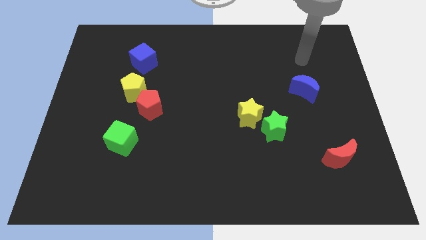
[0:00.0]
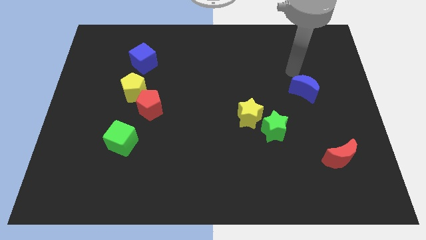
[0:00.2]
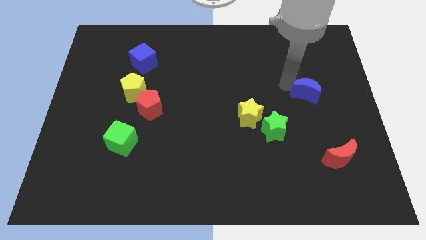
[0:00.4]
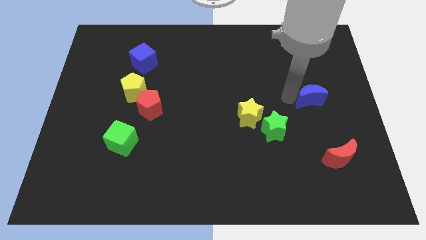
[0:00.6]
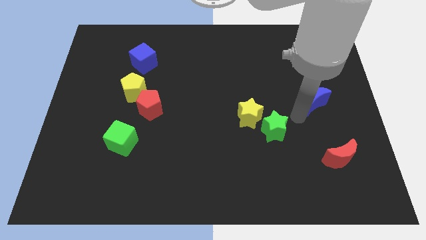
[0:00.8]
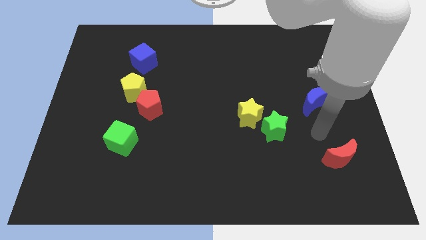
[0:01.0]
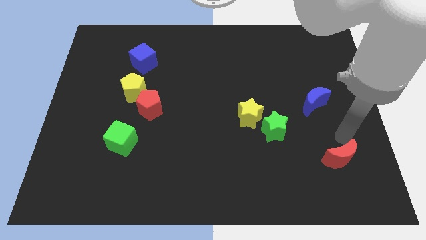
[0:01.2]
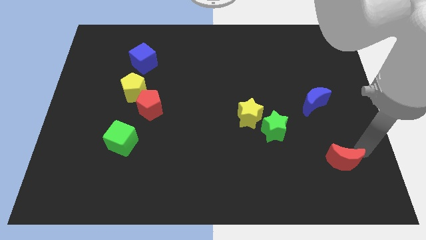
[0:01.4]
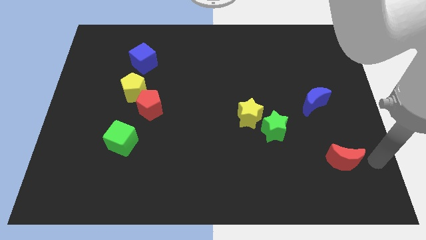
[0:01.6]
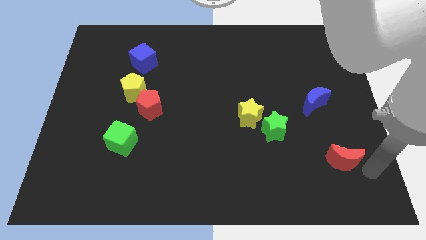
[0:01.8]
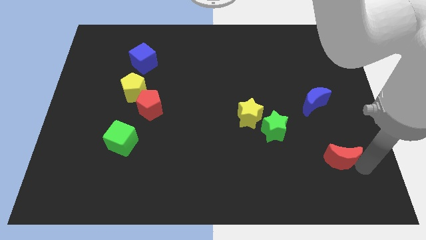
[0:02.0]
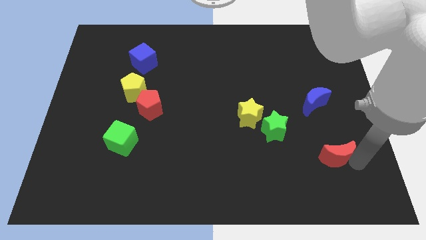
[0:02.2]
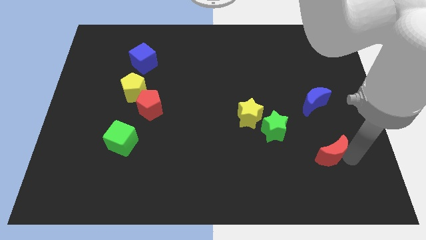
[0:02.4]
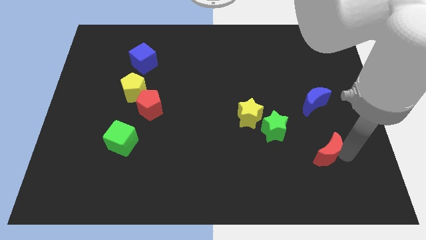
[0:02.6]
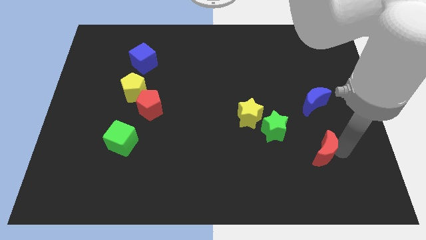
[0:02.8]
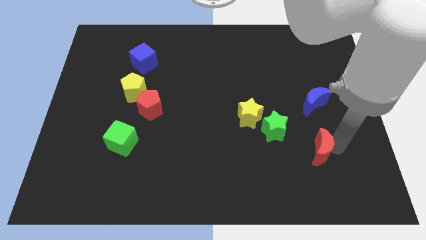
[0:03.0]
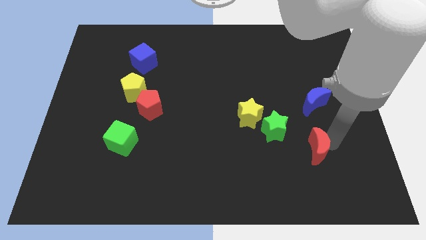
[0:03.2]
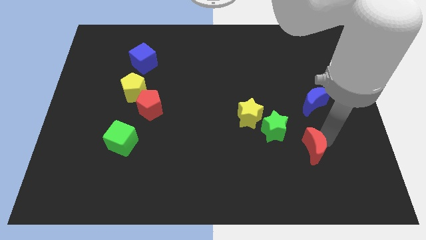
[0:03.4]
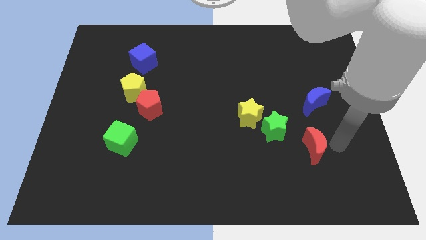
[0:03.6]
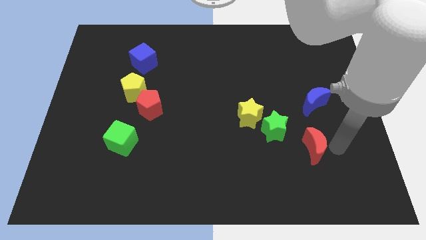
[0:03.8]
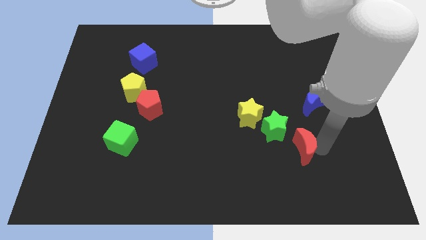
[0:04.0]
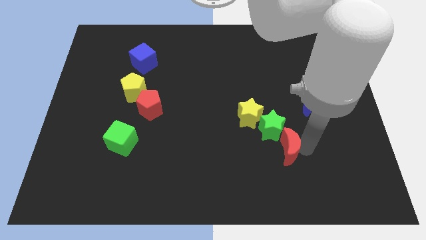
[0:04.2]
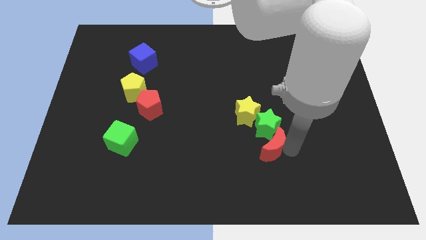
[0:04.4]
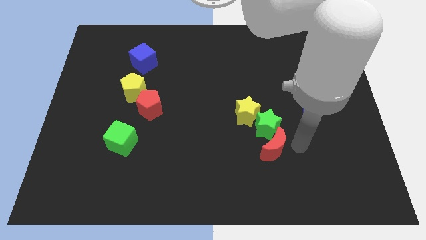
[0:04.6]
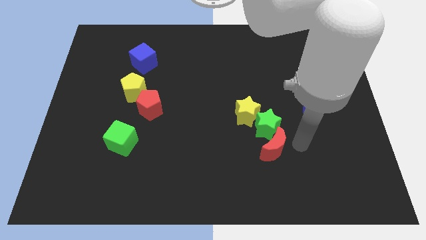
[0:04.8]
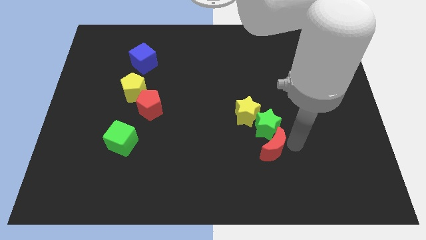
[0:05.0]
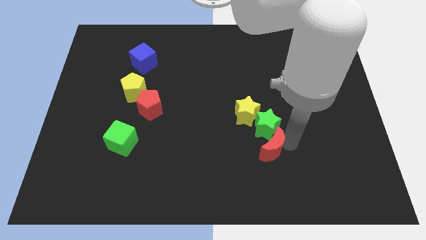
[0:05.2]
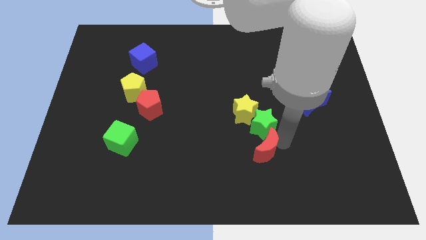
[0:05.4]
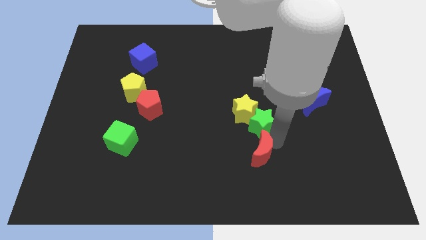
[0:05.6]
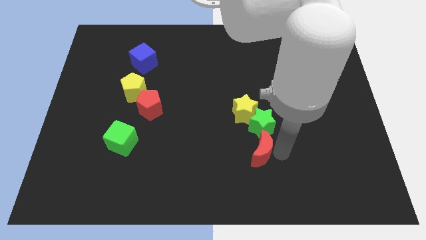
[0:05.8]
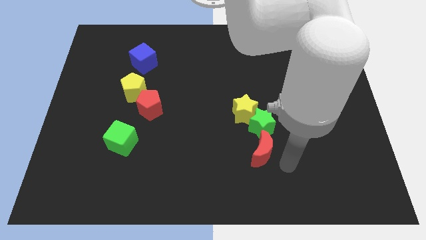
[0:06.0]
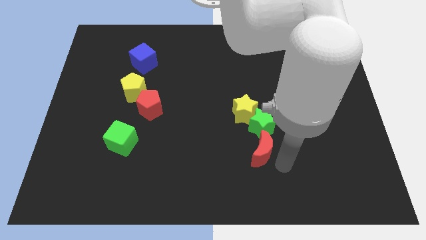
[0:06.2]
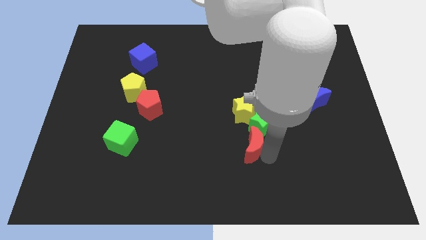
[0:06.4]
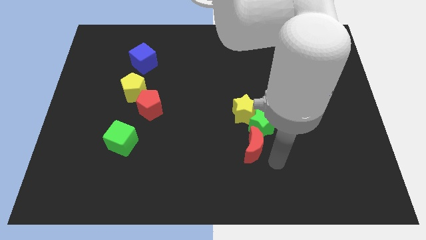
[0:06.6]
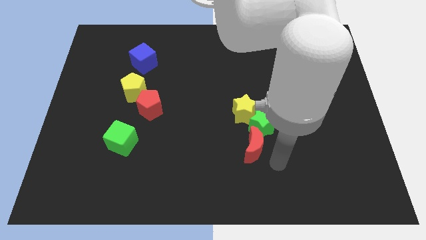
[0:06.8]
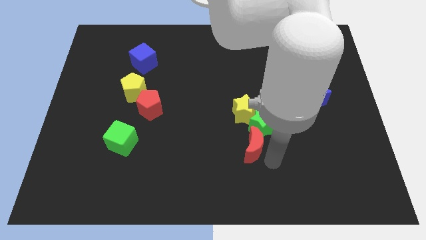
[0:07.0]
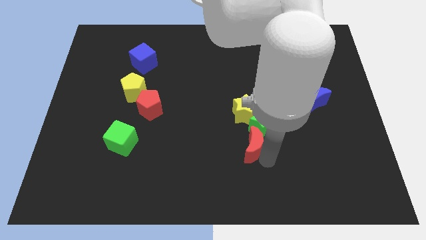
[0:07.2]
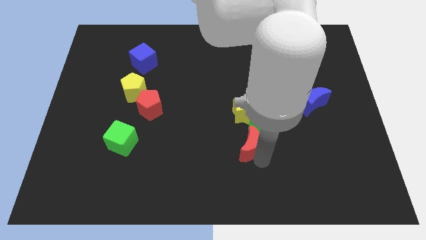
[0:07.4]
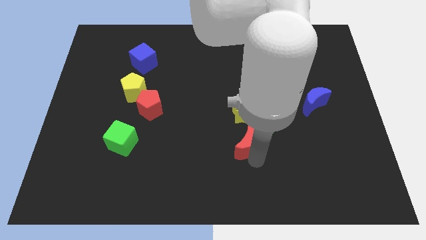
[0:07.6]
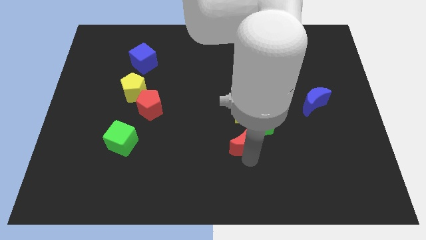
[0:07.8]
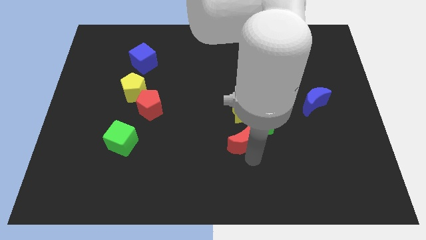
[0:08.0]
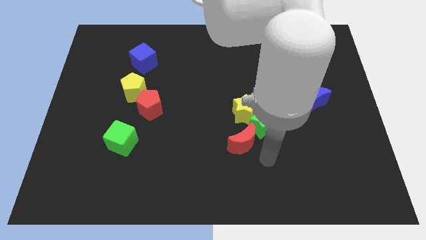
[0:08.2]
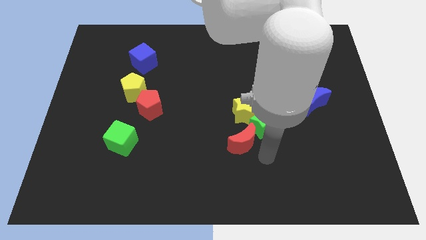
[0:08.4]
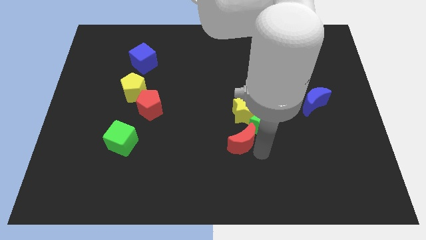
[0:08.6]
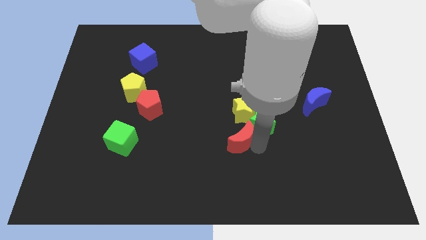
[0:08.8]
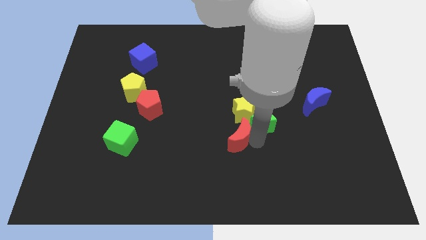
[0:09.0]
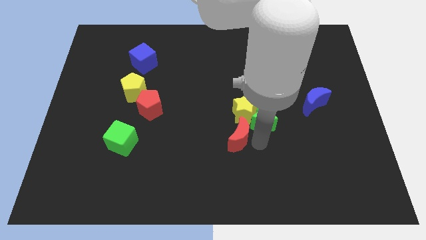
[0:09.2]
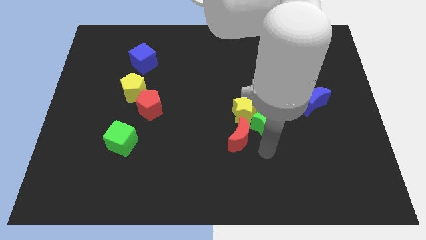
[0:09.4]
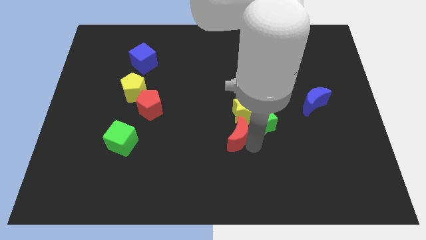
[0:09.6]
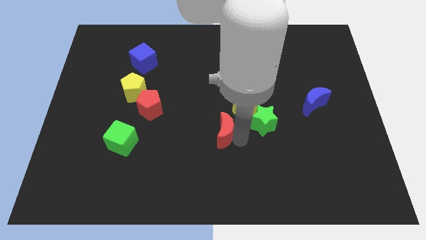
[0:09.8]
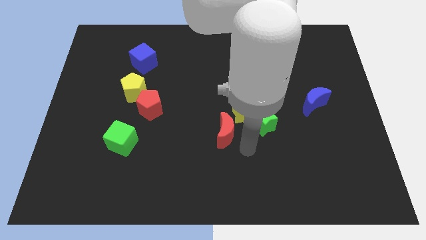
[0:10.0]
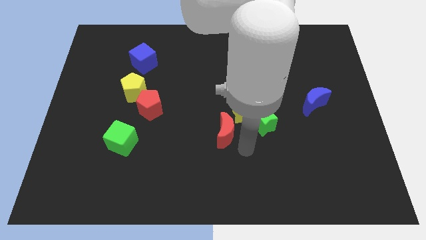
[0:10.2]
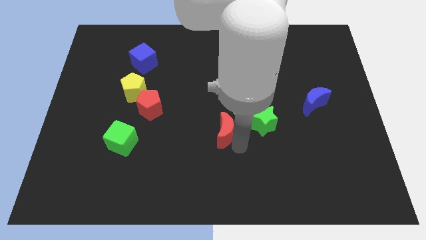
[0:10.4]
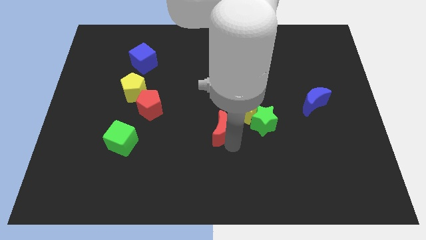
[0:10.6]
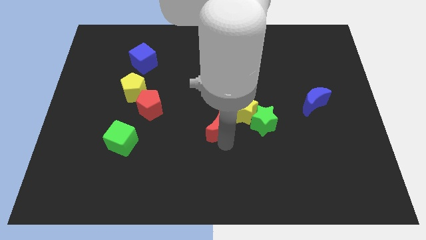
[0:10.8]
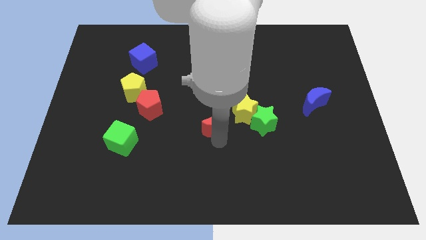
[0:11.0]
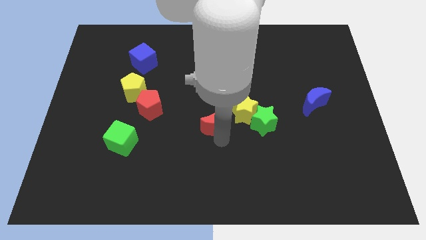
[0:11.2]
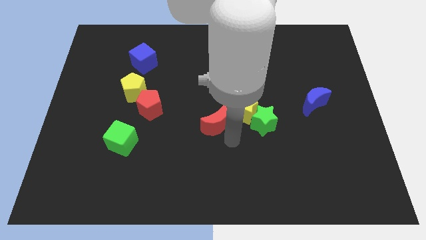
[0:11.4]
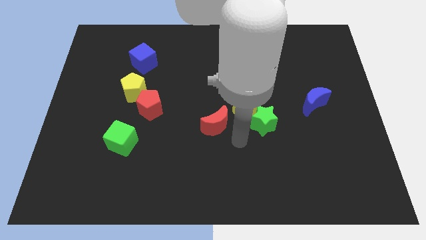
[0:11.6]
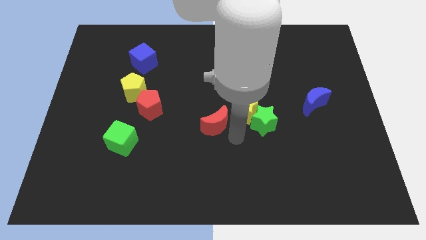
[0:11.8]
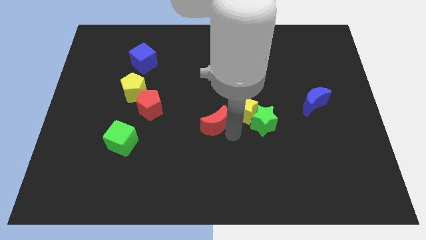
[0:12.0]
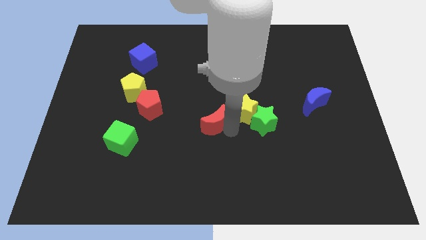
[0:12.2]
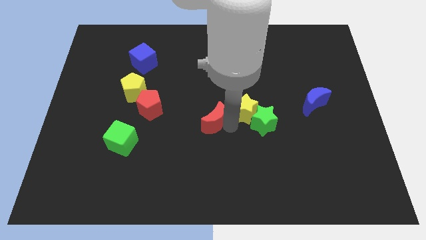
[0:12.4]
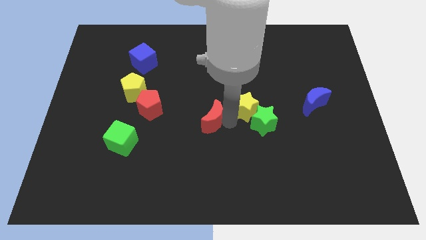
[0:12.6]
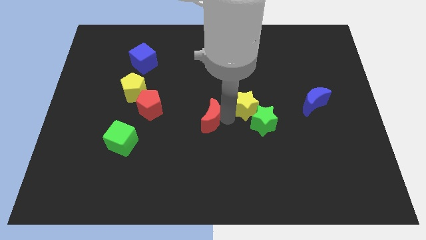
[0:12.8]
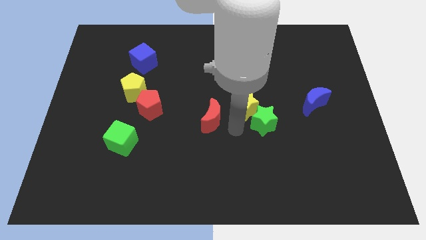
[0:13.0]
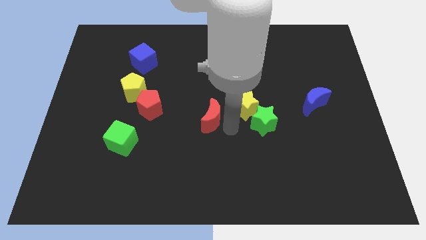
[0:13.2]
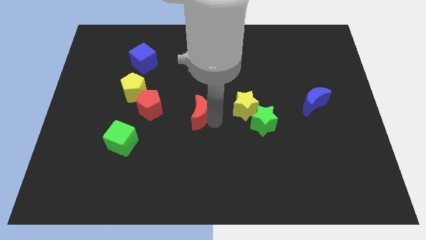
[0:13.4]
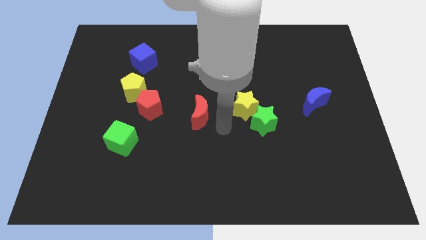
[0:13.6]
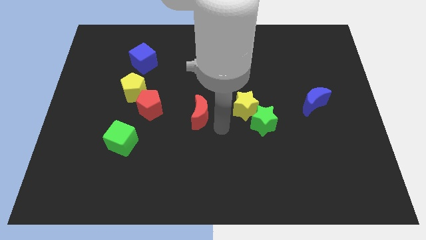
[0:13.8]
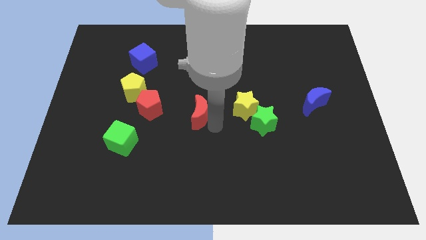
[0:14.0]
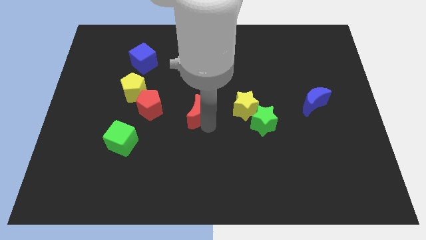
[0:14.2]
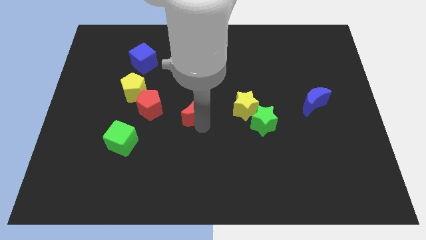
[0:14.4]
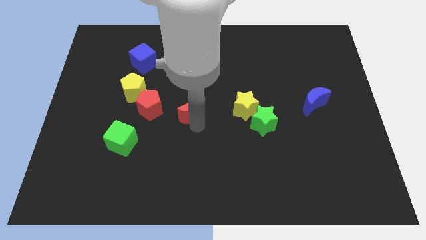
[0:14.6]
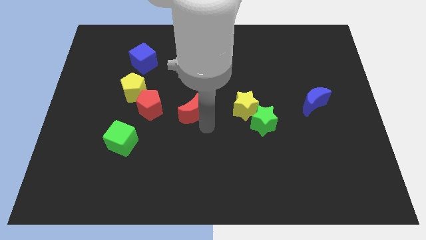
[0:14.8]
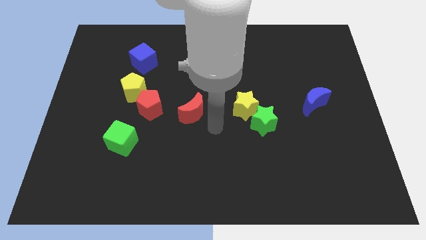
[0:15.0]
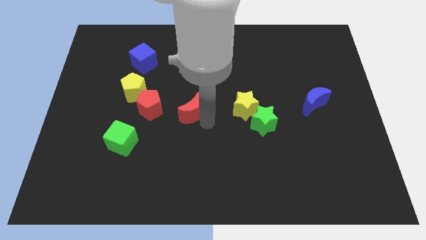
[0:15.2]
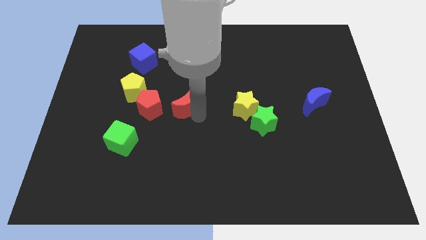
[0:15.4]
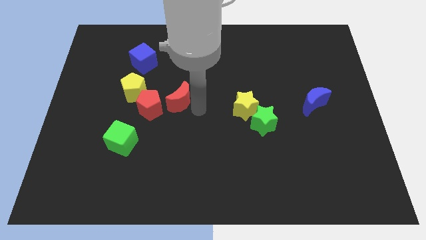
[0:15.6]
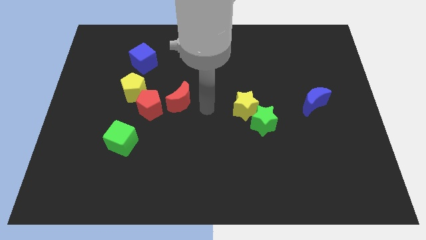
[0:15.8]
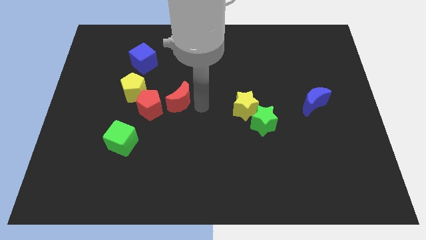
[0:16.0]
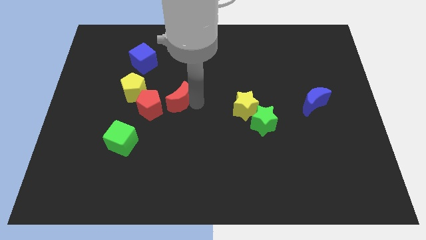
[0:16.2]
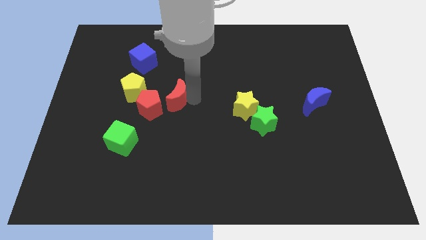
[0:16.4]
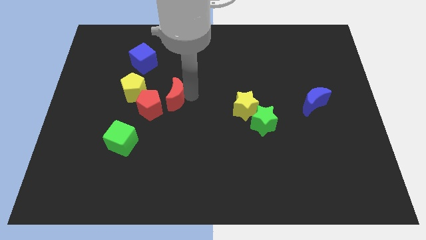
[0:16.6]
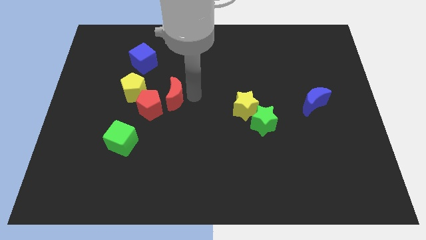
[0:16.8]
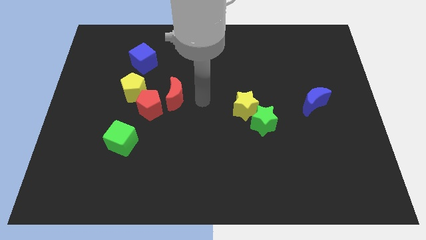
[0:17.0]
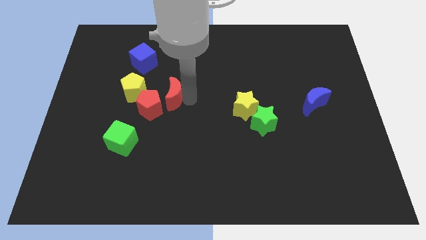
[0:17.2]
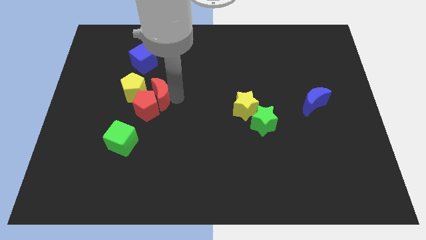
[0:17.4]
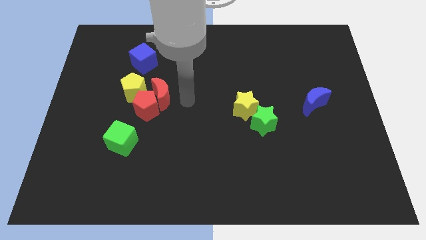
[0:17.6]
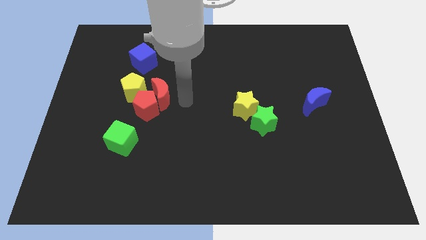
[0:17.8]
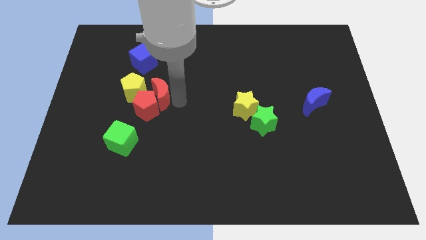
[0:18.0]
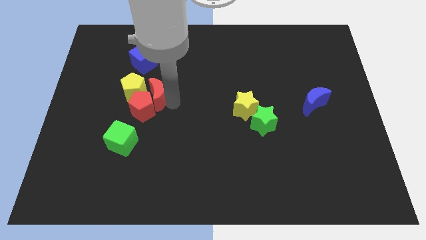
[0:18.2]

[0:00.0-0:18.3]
move the red moon towards the yellow pentagon
